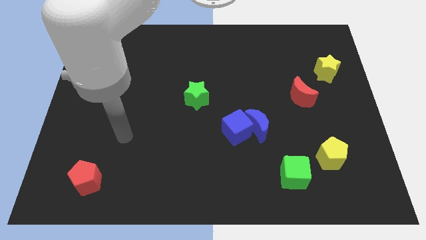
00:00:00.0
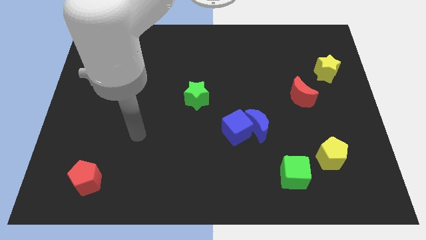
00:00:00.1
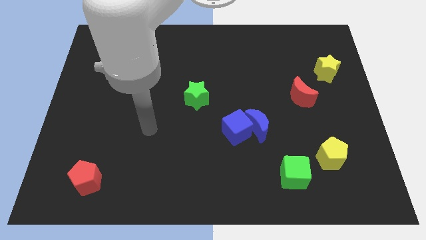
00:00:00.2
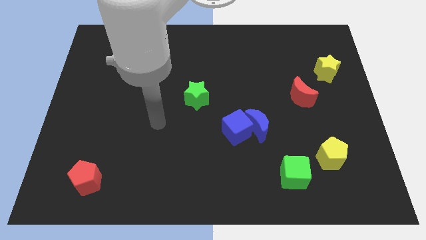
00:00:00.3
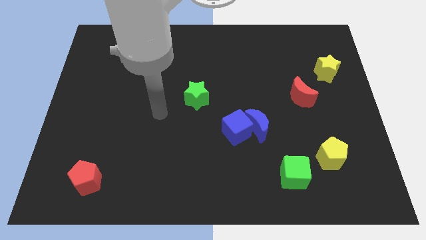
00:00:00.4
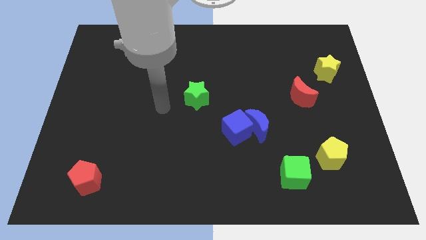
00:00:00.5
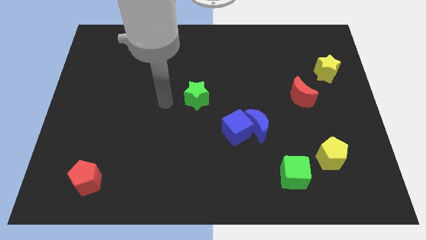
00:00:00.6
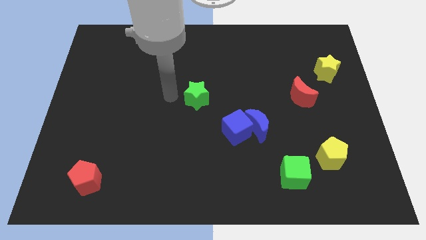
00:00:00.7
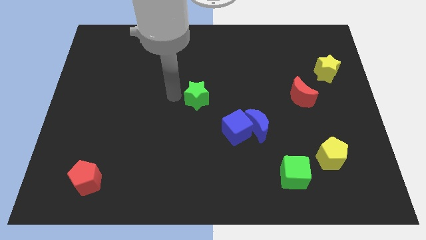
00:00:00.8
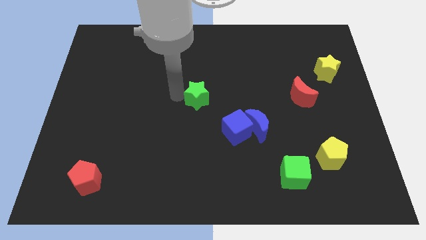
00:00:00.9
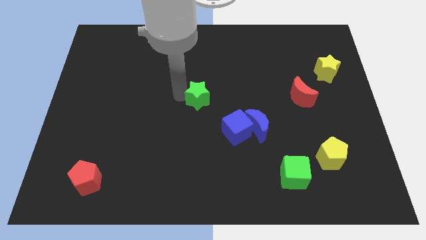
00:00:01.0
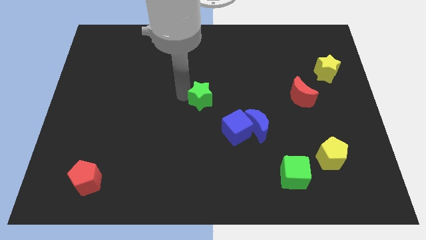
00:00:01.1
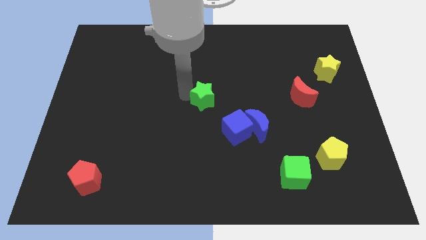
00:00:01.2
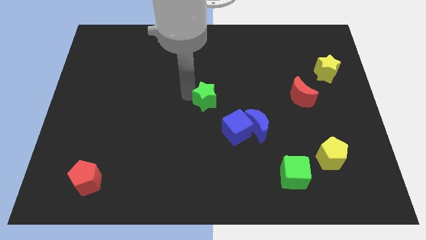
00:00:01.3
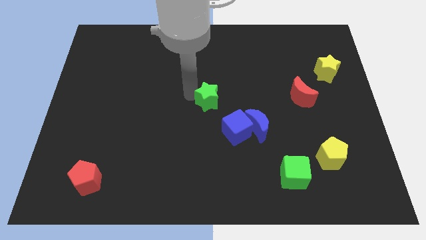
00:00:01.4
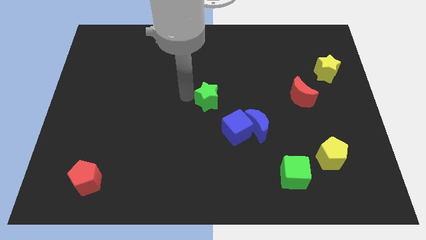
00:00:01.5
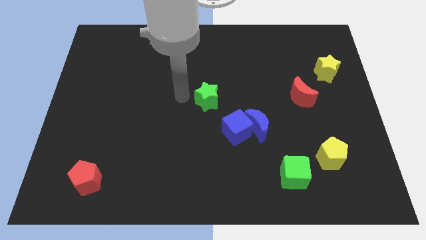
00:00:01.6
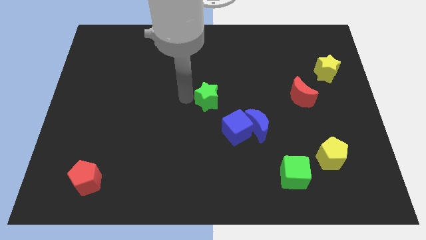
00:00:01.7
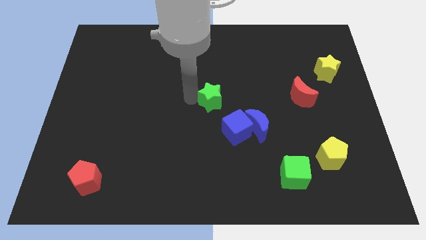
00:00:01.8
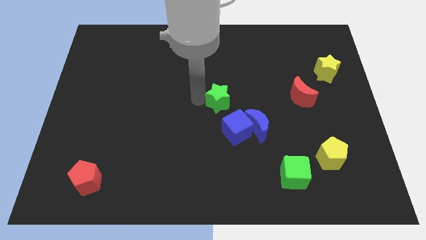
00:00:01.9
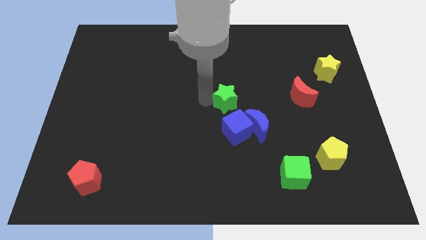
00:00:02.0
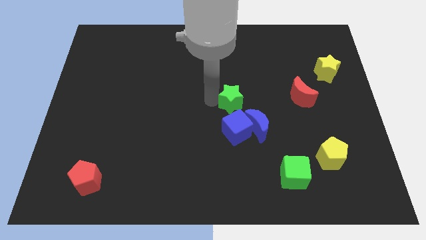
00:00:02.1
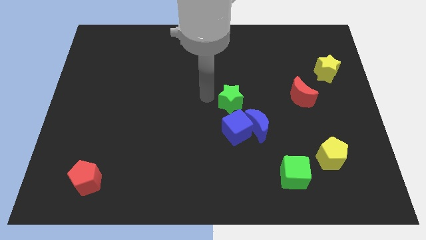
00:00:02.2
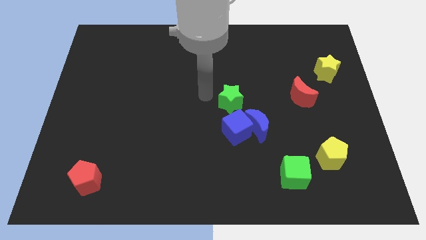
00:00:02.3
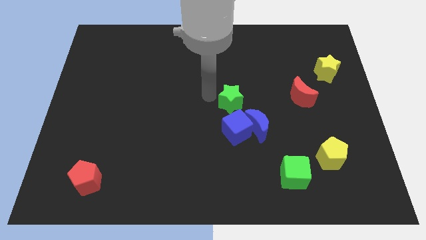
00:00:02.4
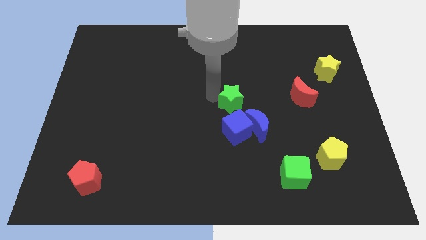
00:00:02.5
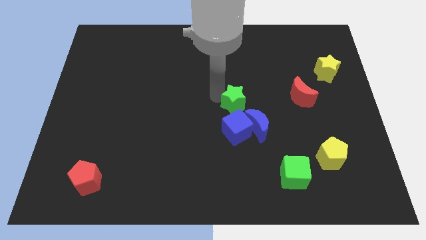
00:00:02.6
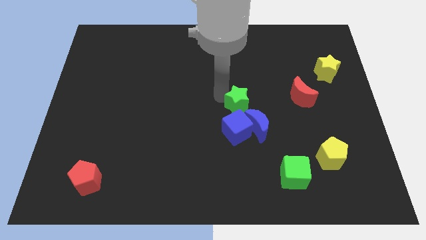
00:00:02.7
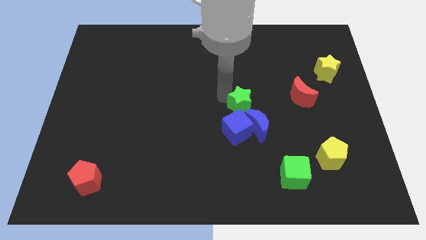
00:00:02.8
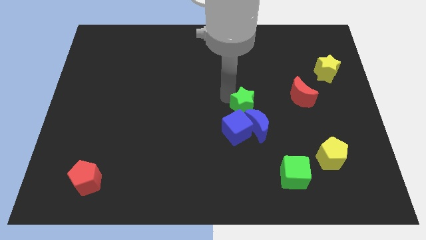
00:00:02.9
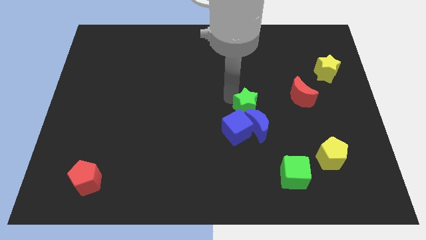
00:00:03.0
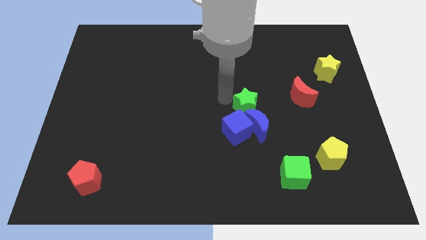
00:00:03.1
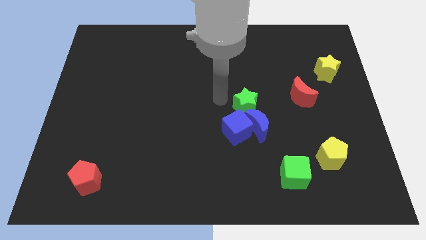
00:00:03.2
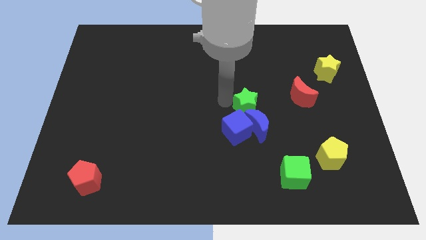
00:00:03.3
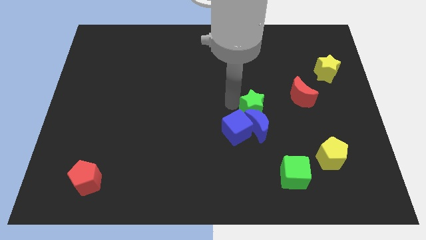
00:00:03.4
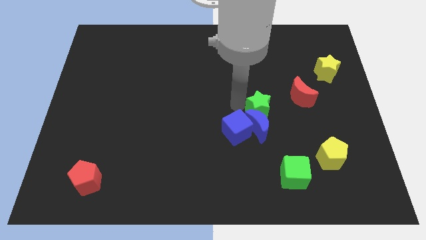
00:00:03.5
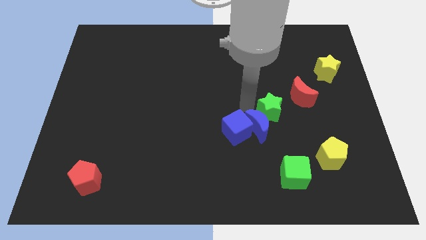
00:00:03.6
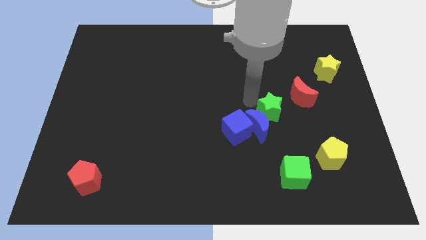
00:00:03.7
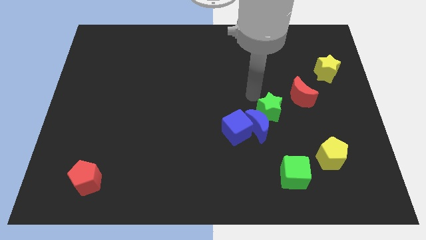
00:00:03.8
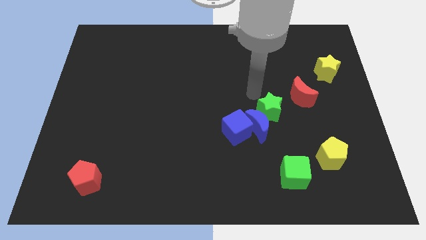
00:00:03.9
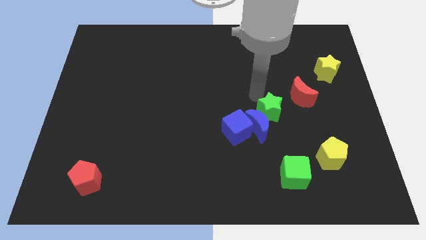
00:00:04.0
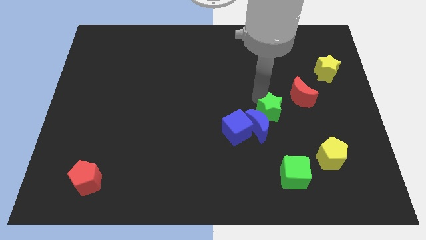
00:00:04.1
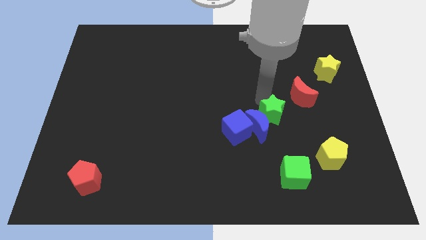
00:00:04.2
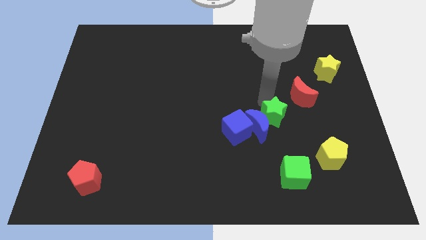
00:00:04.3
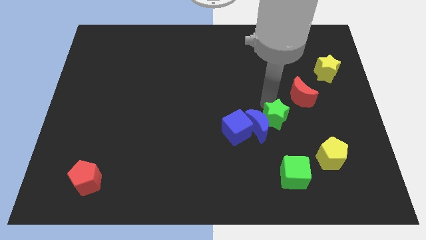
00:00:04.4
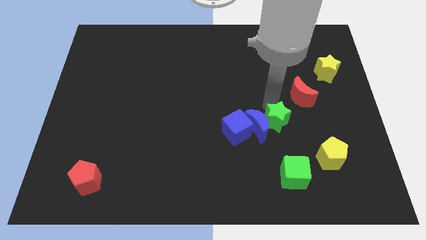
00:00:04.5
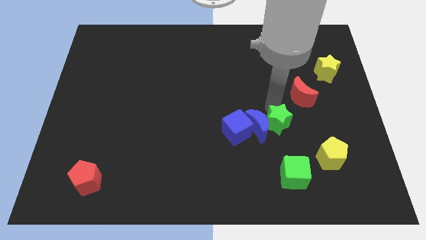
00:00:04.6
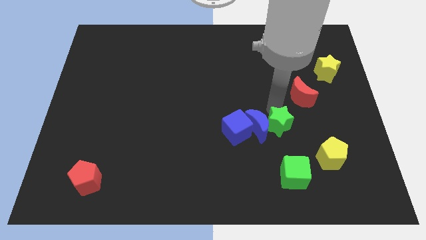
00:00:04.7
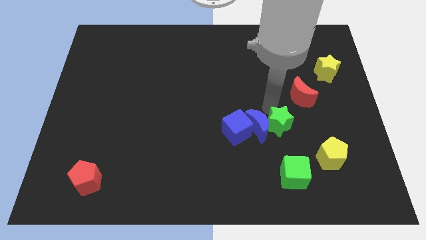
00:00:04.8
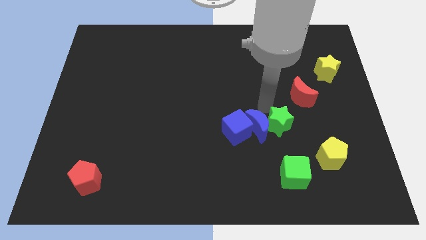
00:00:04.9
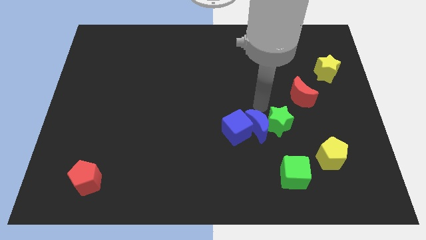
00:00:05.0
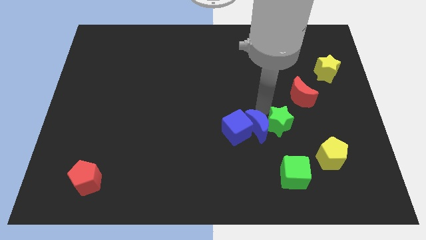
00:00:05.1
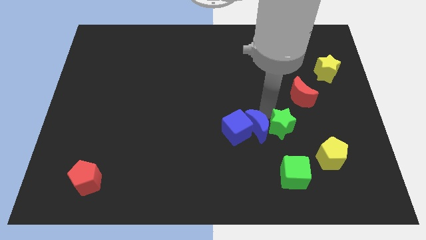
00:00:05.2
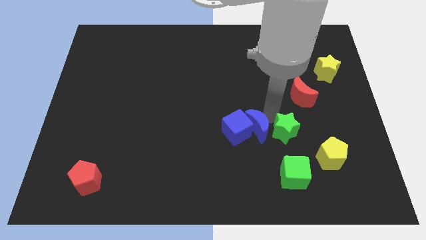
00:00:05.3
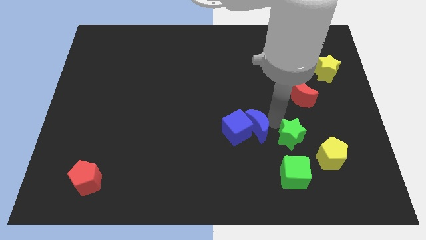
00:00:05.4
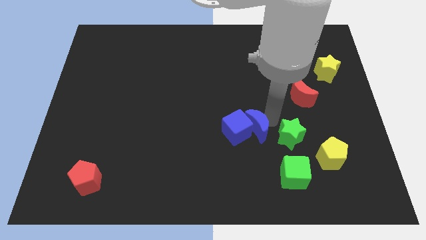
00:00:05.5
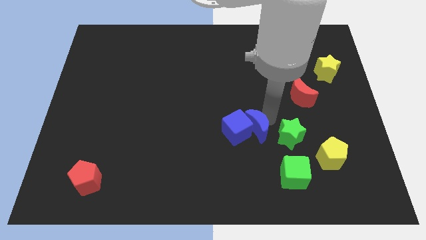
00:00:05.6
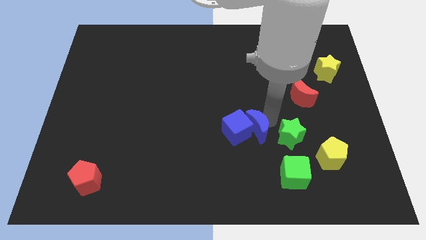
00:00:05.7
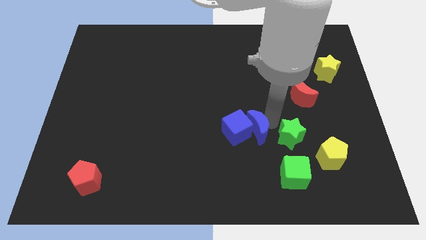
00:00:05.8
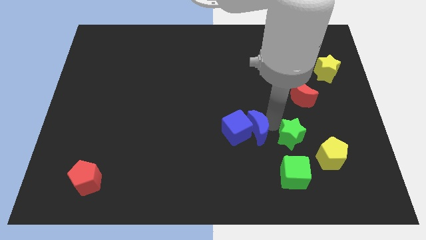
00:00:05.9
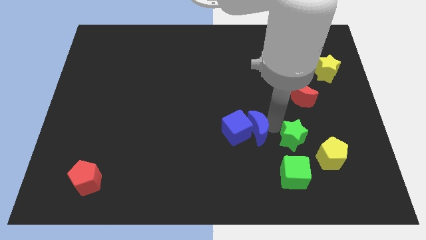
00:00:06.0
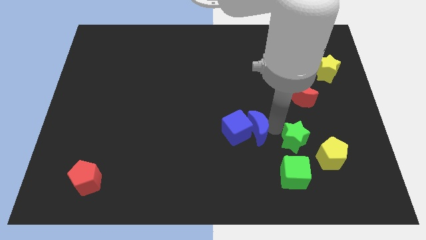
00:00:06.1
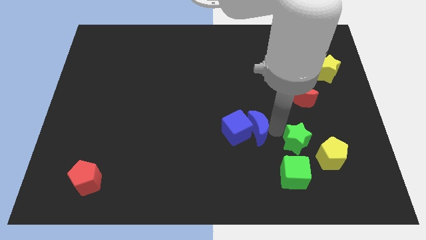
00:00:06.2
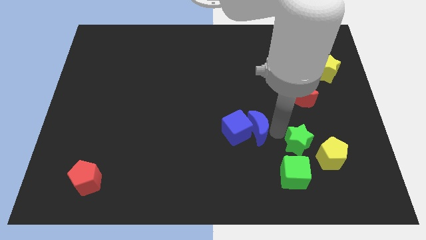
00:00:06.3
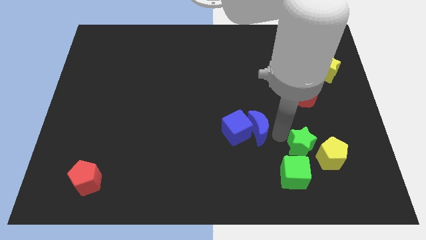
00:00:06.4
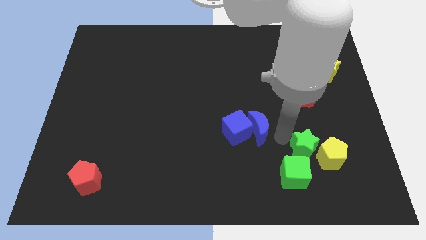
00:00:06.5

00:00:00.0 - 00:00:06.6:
push the green star close to the yellow pentagon

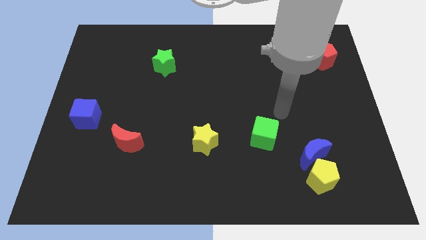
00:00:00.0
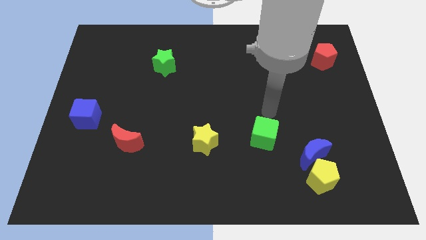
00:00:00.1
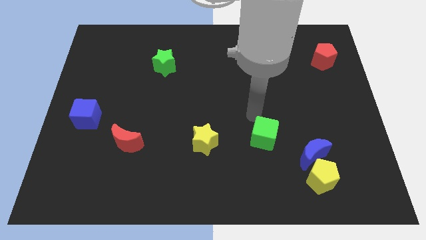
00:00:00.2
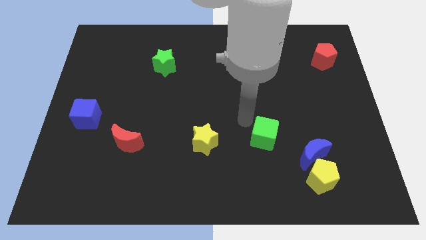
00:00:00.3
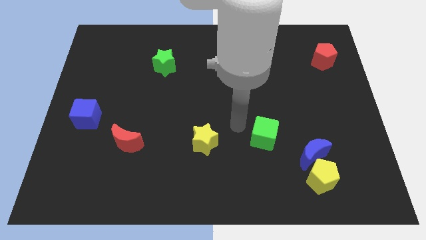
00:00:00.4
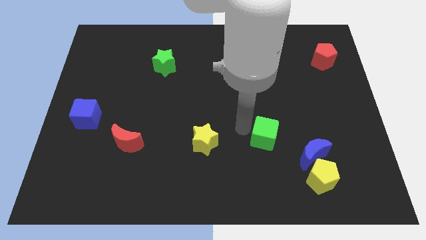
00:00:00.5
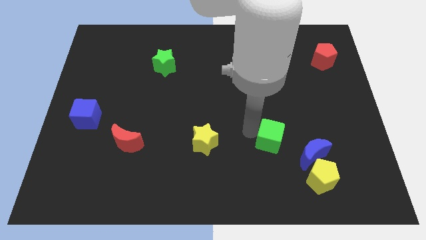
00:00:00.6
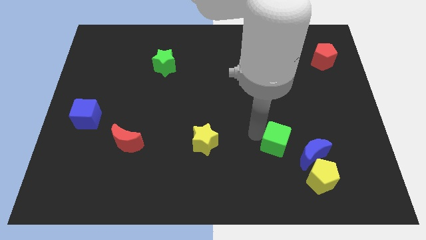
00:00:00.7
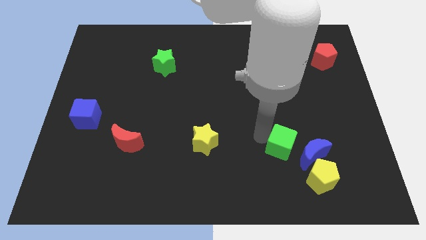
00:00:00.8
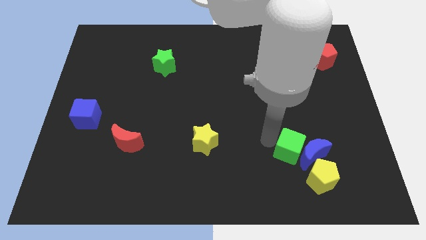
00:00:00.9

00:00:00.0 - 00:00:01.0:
slide the green cube next to the blue moon

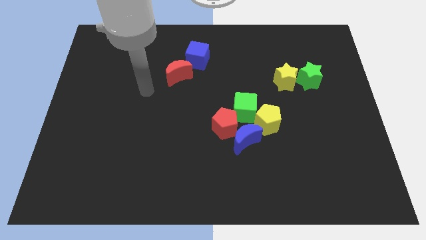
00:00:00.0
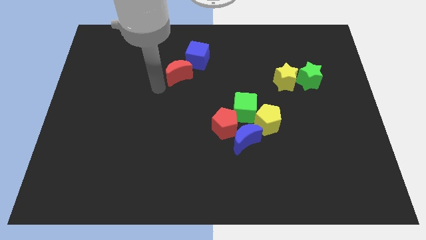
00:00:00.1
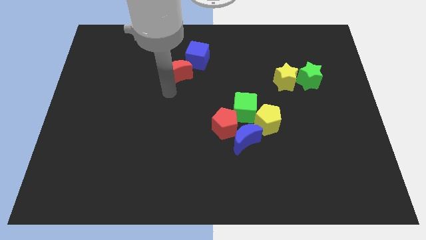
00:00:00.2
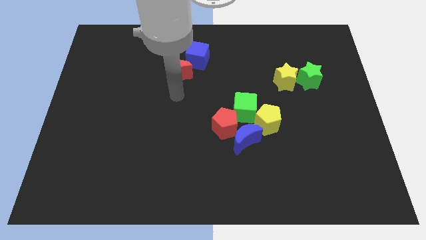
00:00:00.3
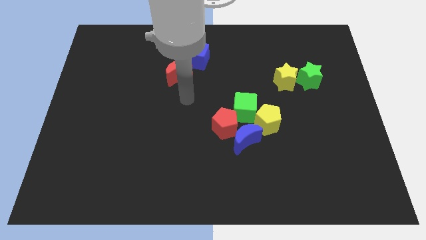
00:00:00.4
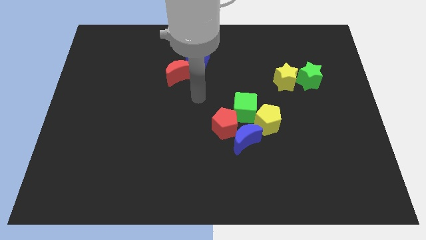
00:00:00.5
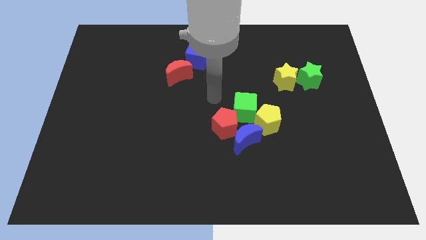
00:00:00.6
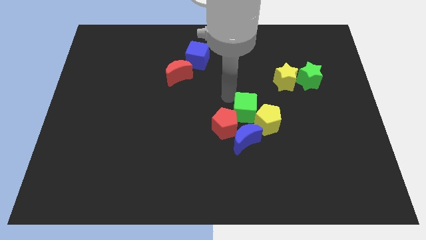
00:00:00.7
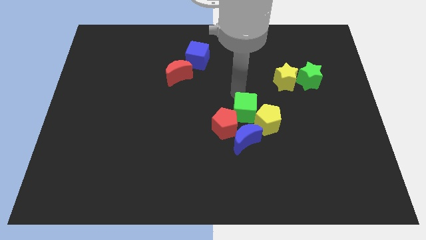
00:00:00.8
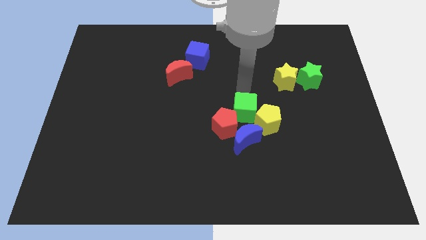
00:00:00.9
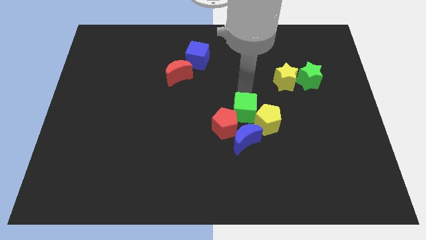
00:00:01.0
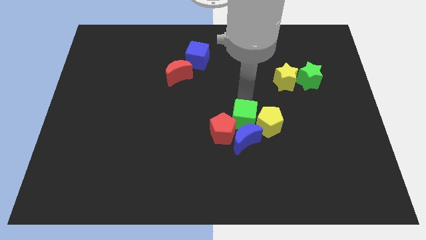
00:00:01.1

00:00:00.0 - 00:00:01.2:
put the green cube to the blue moon
